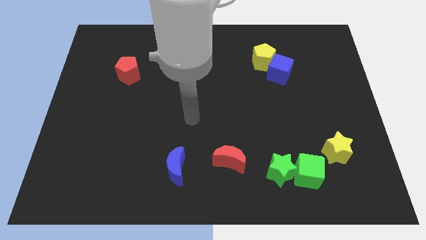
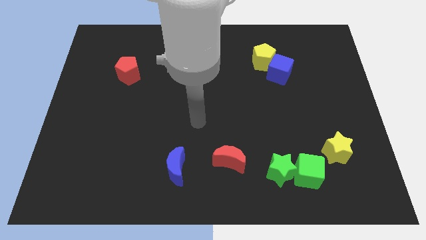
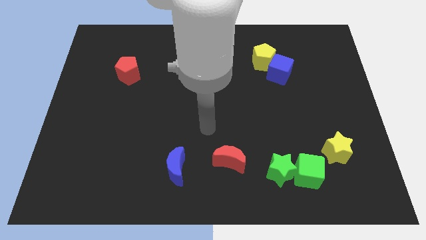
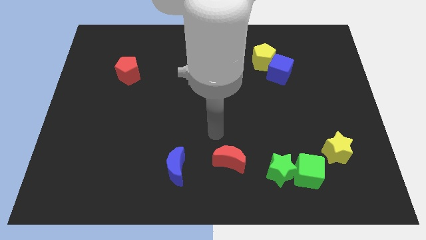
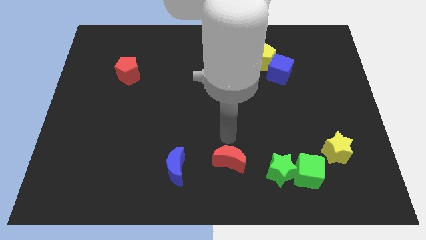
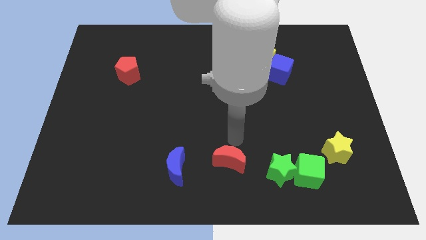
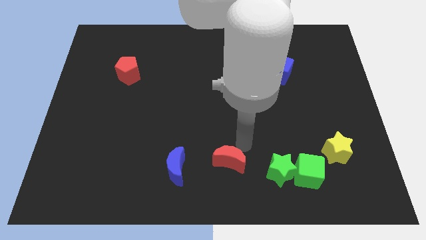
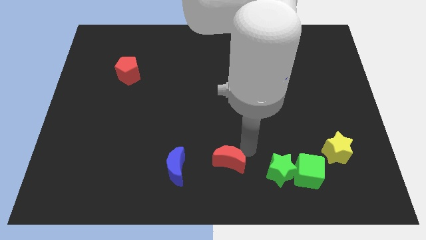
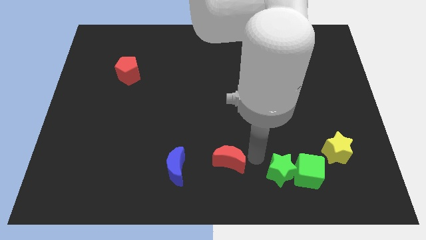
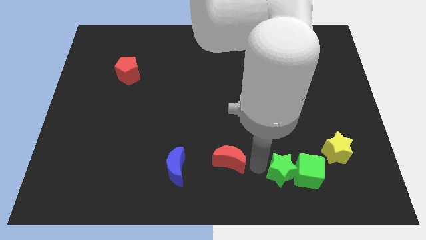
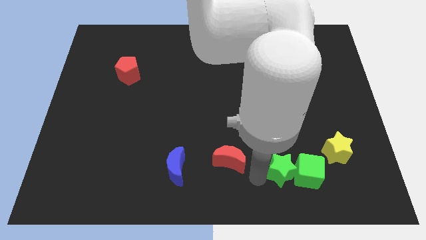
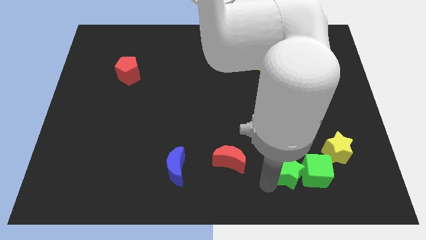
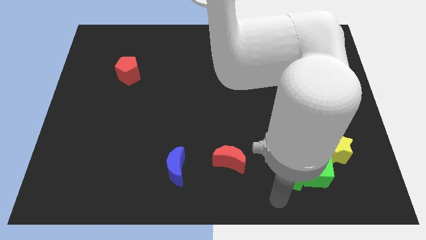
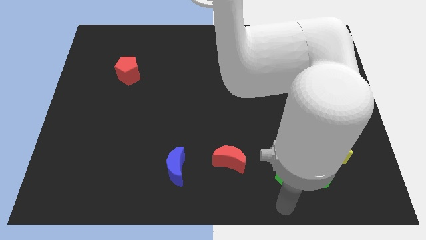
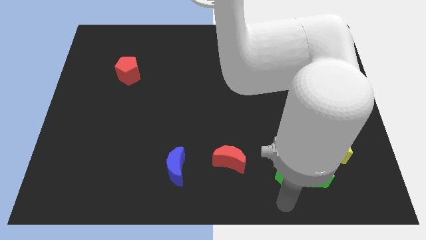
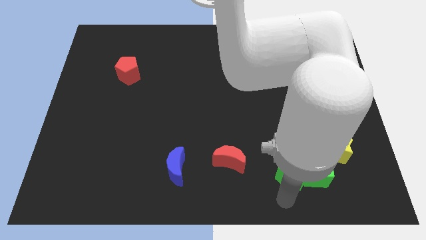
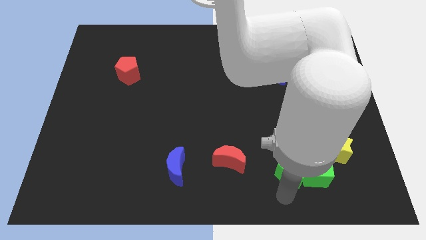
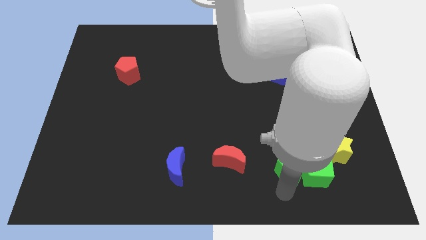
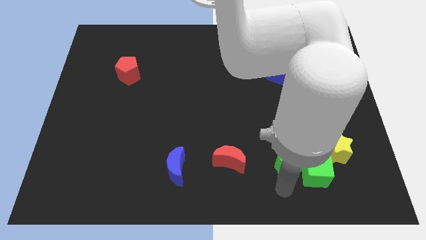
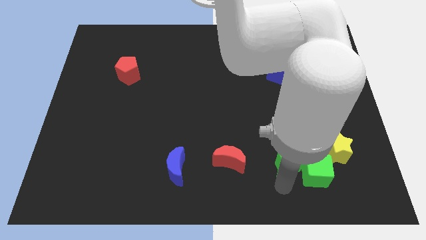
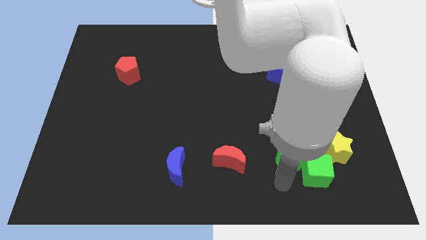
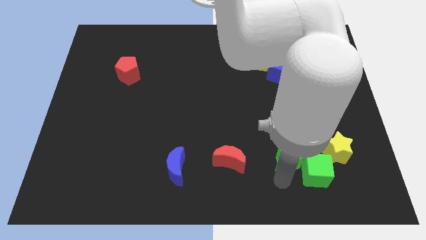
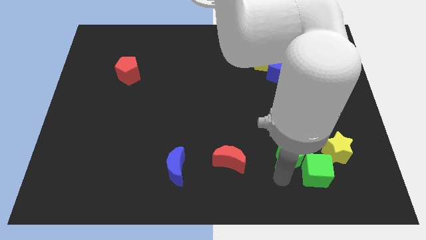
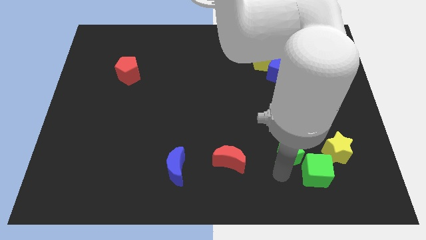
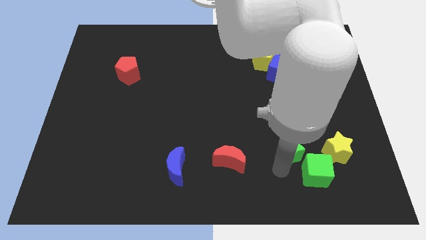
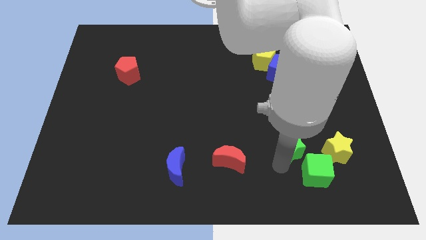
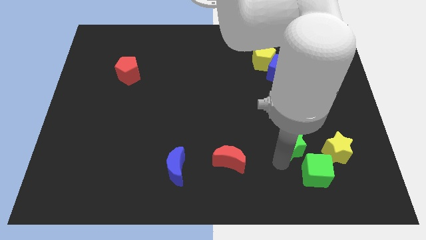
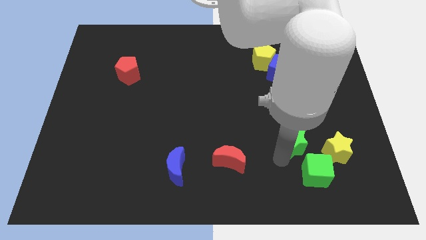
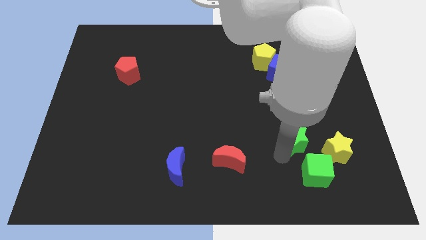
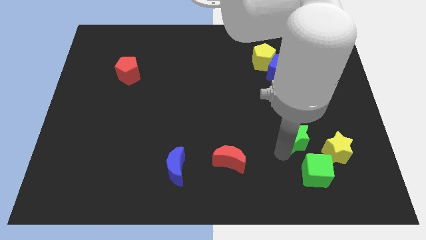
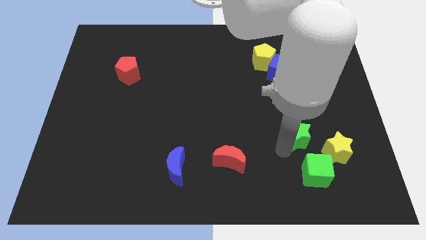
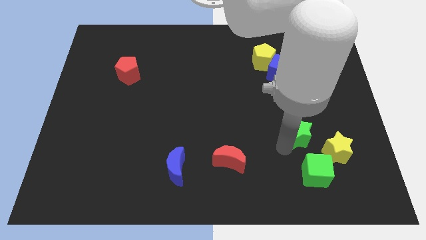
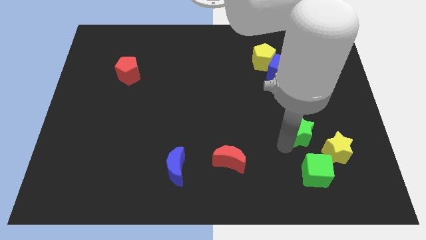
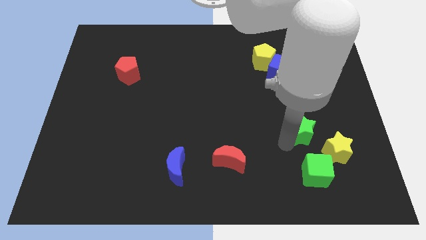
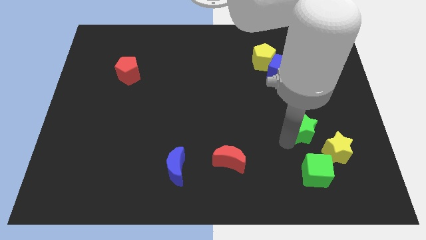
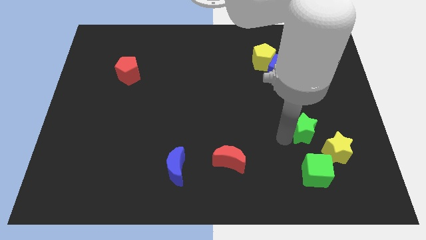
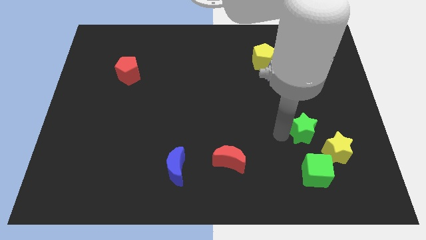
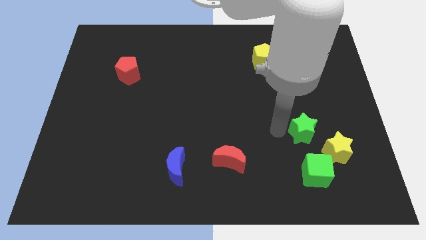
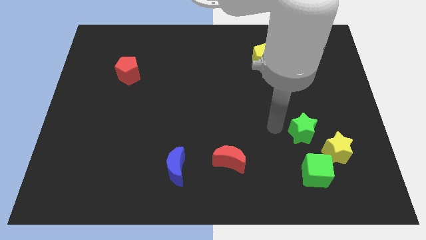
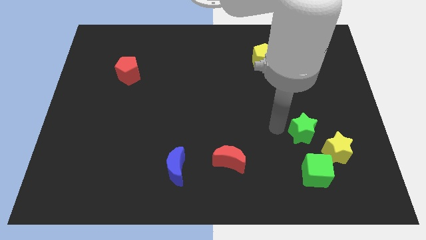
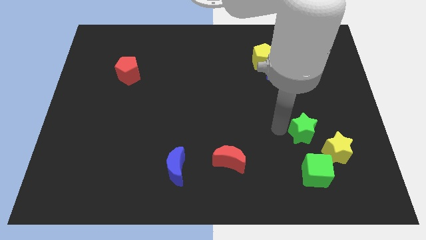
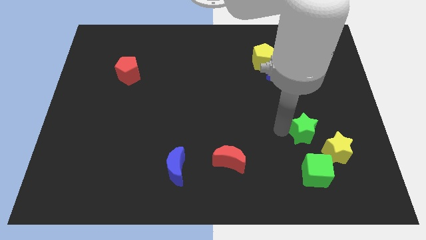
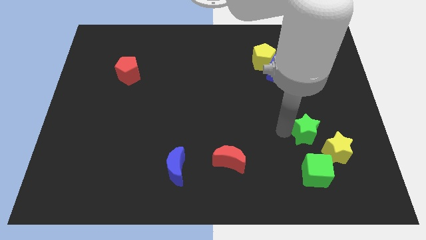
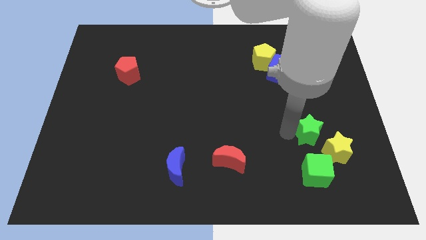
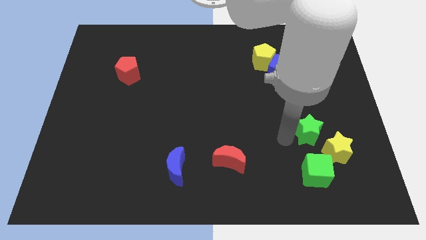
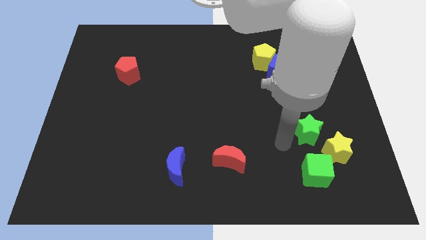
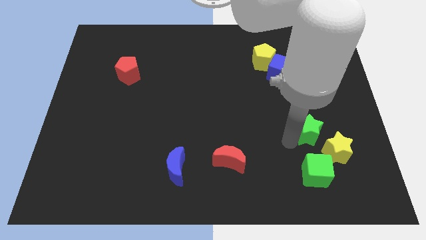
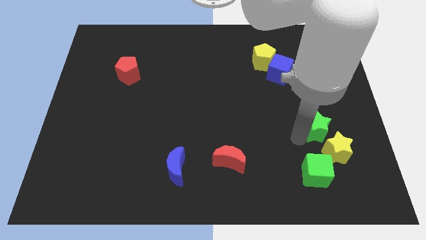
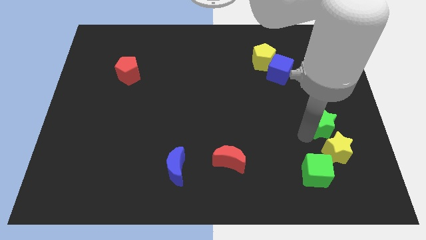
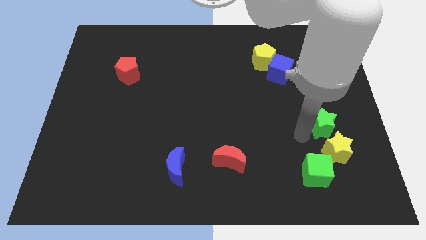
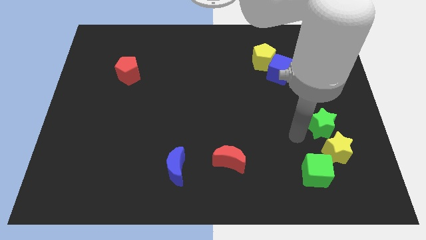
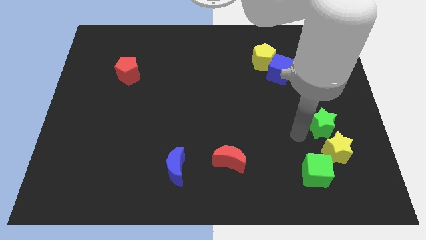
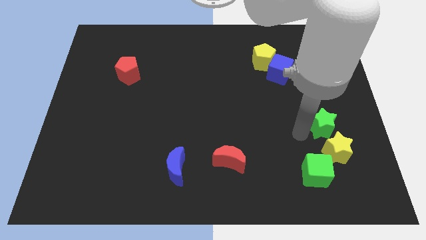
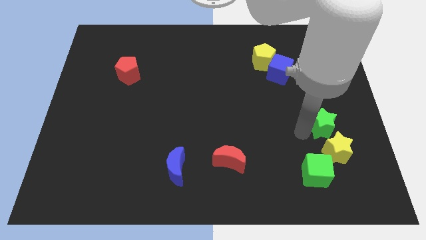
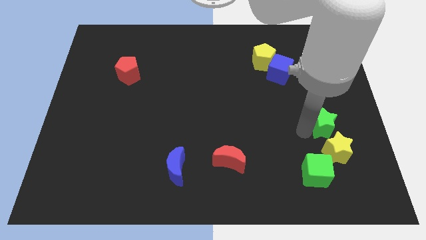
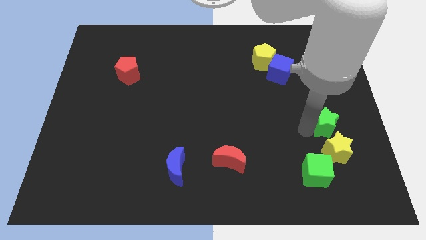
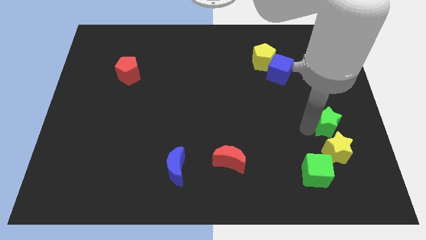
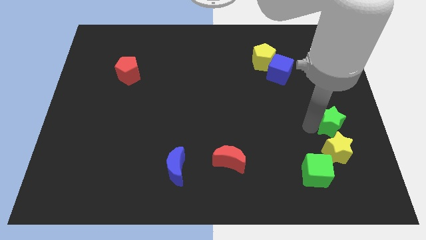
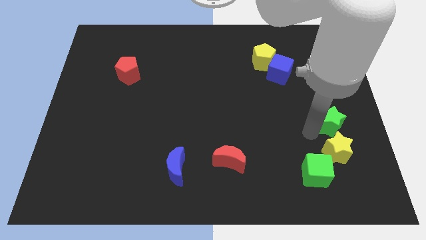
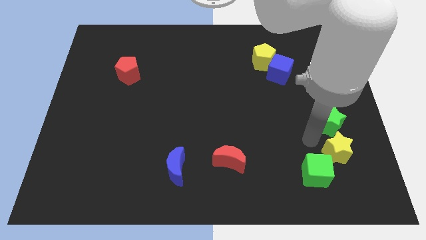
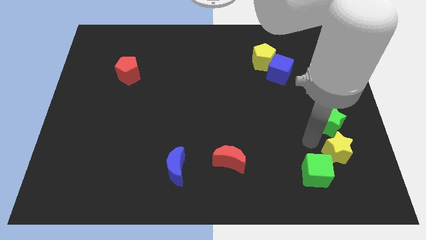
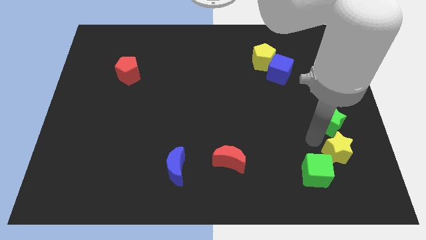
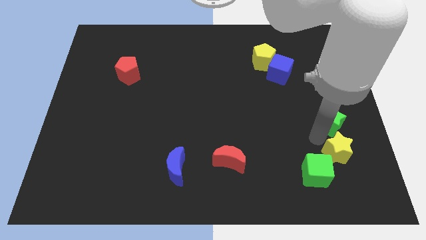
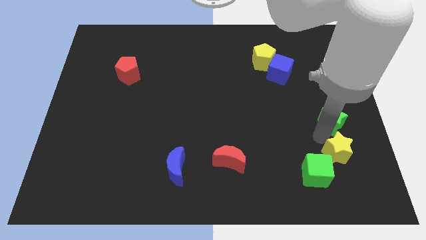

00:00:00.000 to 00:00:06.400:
slide the green star to the right side
